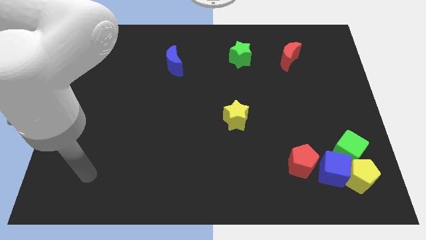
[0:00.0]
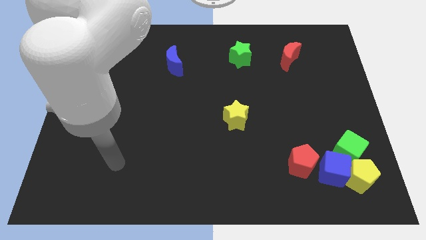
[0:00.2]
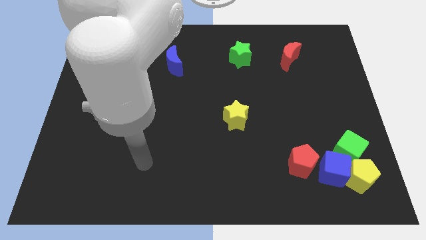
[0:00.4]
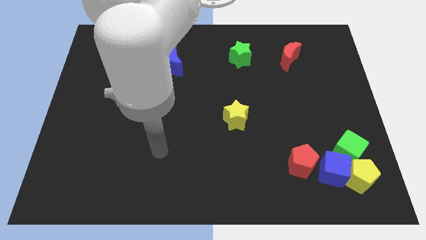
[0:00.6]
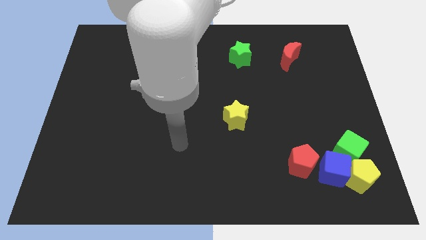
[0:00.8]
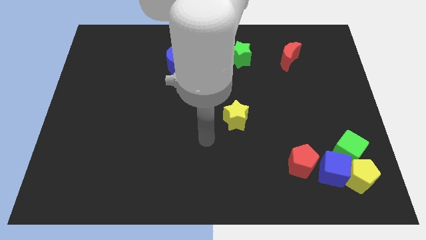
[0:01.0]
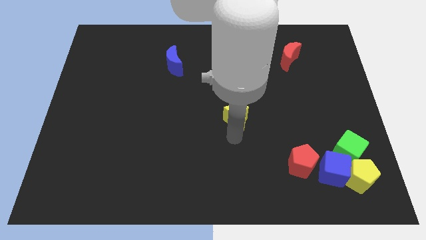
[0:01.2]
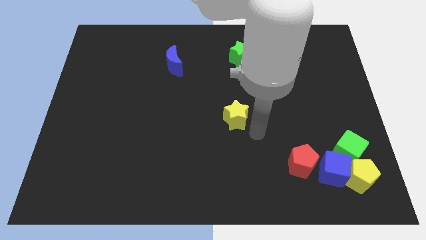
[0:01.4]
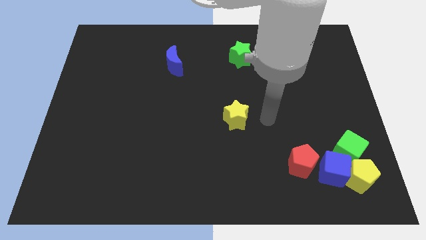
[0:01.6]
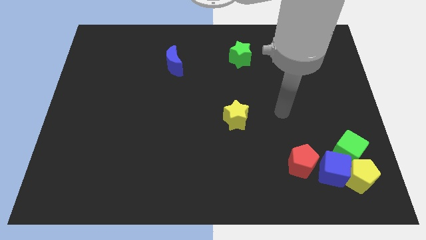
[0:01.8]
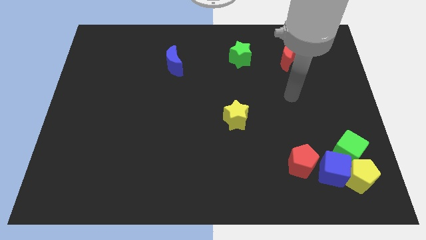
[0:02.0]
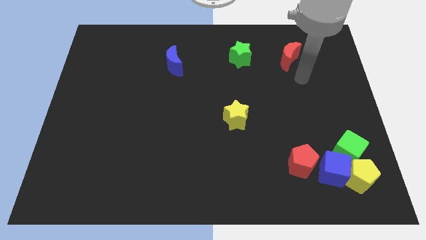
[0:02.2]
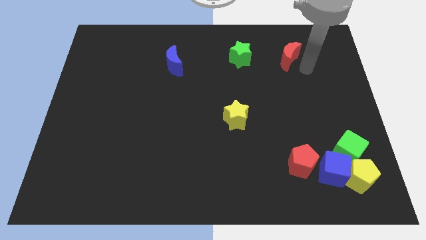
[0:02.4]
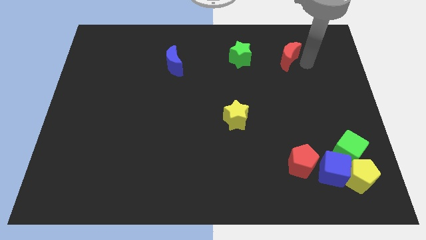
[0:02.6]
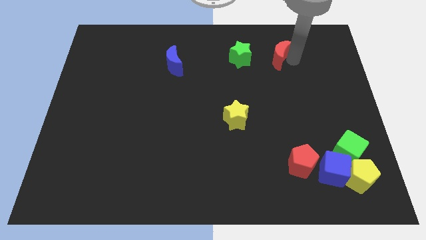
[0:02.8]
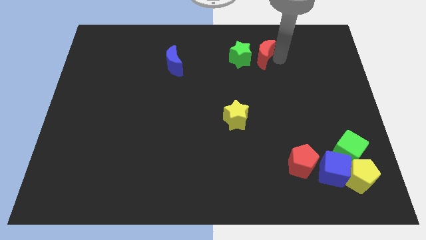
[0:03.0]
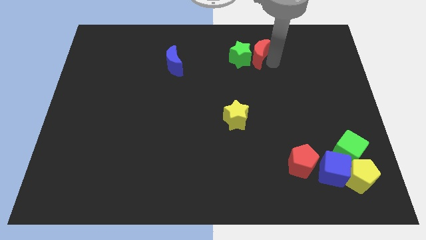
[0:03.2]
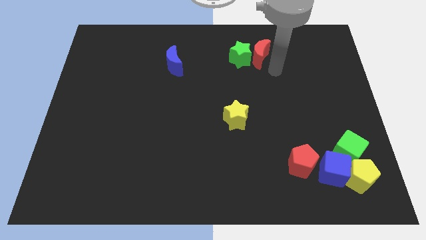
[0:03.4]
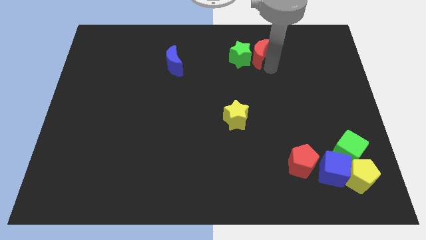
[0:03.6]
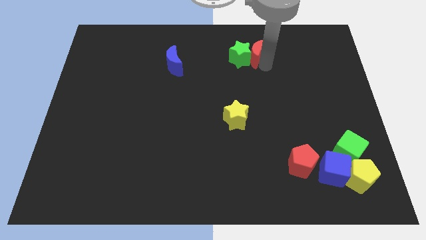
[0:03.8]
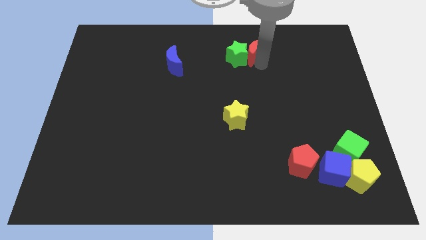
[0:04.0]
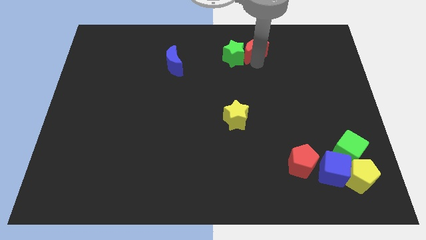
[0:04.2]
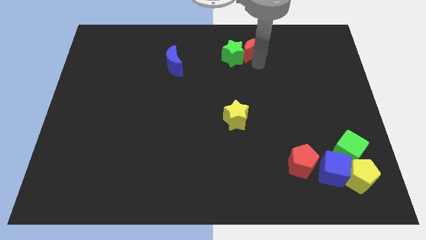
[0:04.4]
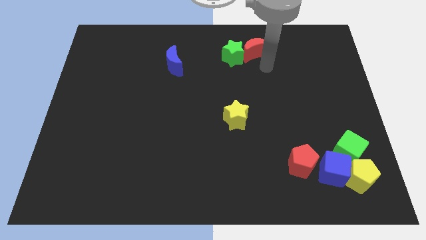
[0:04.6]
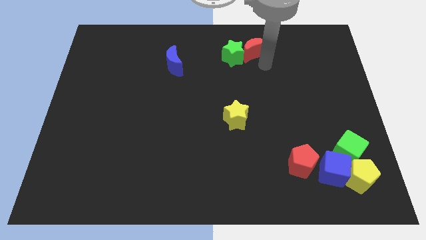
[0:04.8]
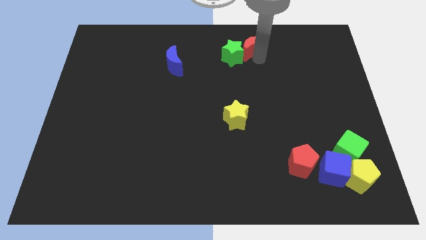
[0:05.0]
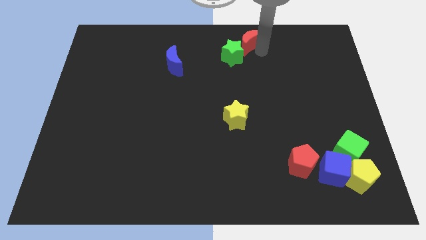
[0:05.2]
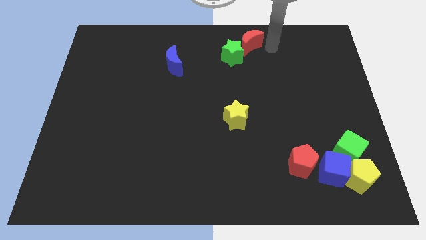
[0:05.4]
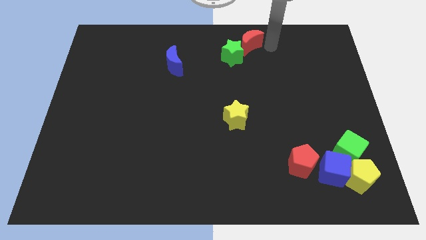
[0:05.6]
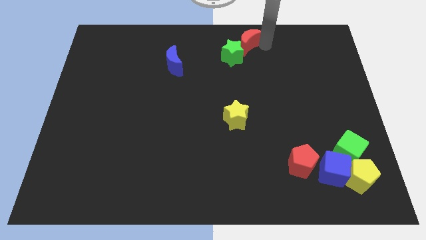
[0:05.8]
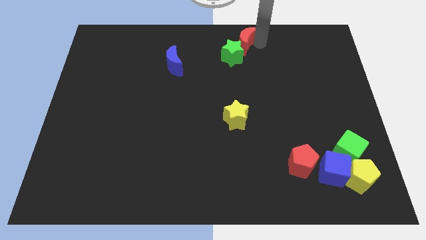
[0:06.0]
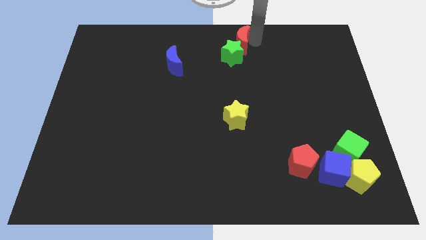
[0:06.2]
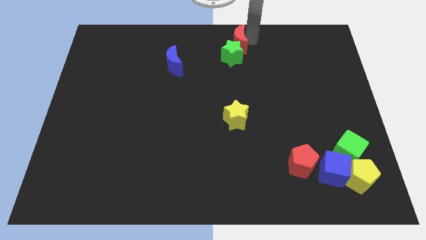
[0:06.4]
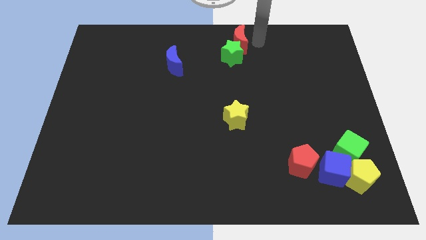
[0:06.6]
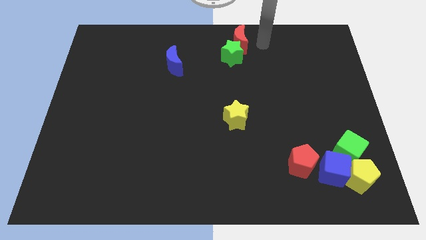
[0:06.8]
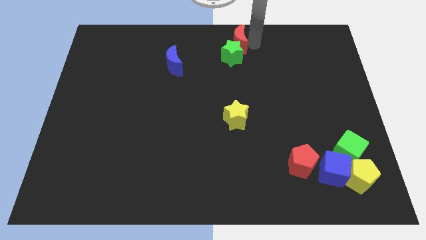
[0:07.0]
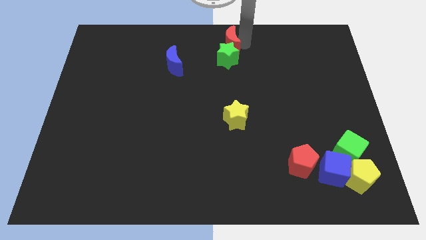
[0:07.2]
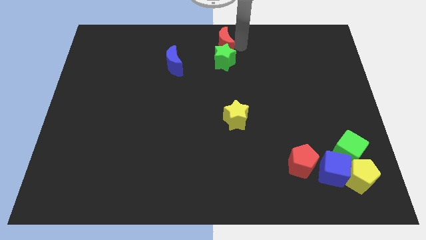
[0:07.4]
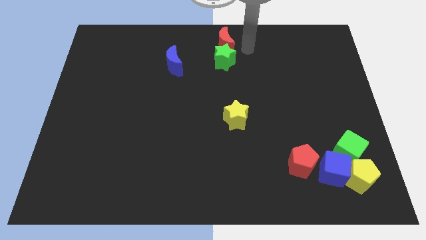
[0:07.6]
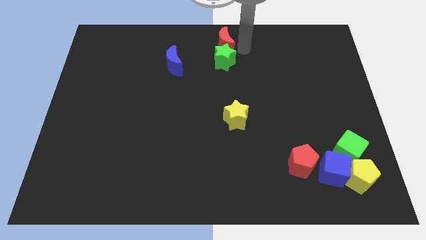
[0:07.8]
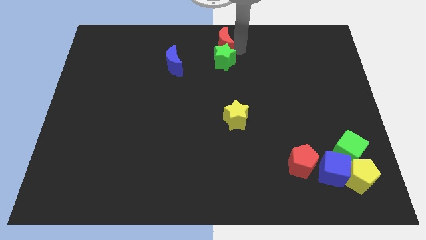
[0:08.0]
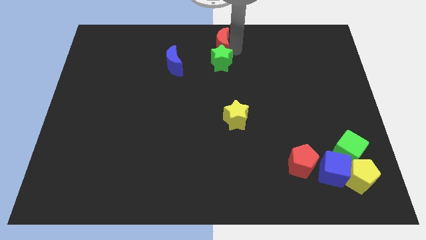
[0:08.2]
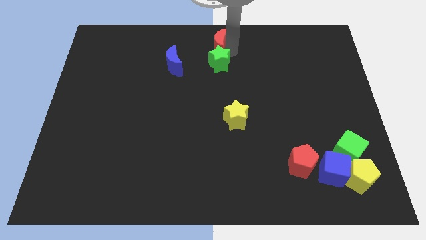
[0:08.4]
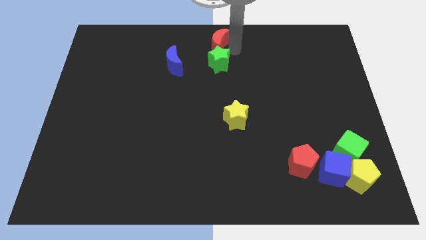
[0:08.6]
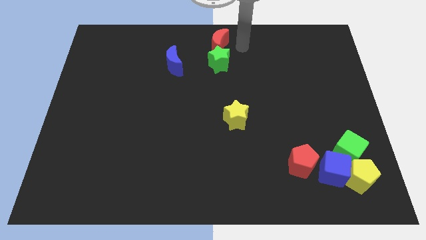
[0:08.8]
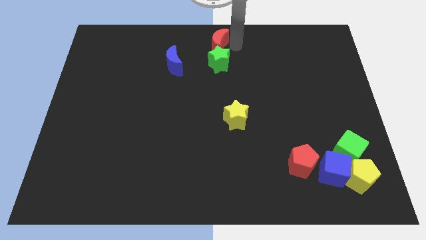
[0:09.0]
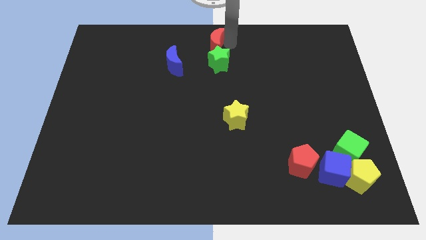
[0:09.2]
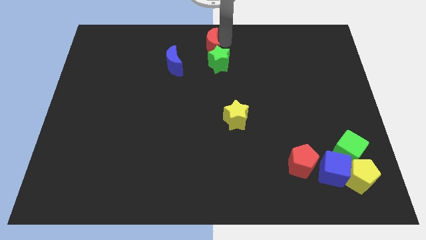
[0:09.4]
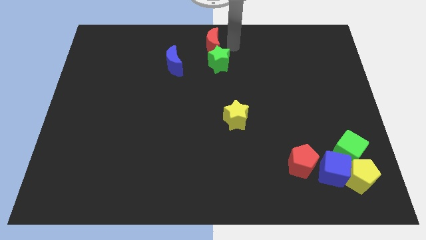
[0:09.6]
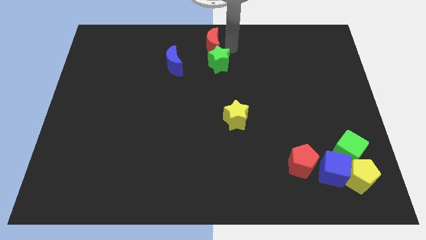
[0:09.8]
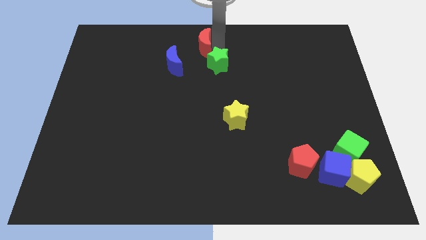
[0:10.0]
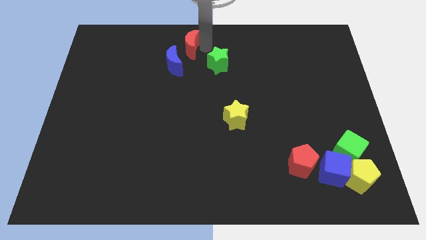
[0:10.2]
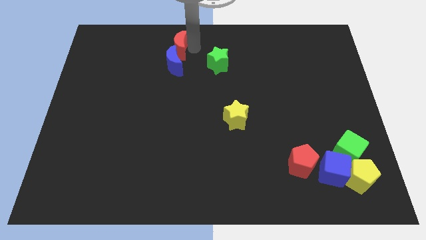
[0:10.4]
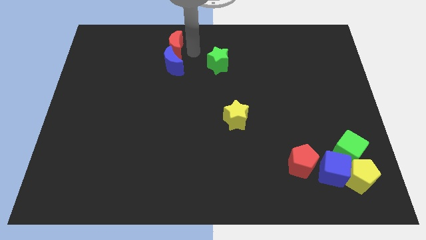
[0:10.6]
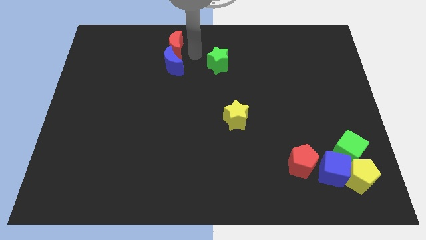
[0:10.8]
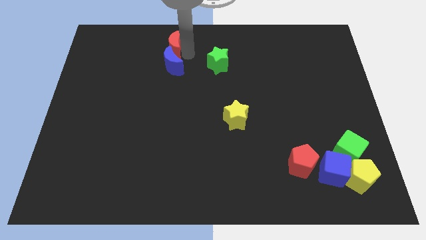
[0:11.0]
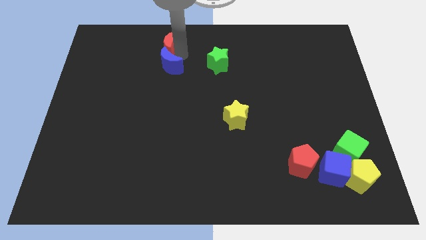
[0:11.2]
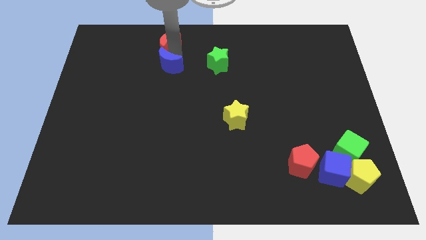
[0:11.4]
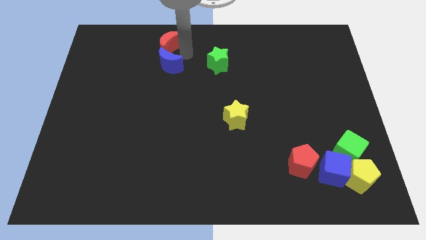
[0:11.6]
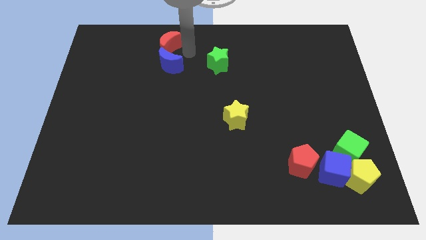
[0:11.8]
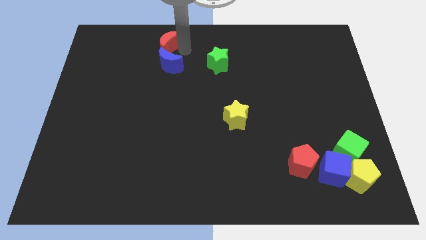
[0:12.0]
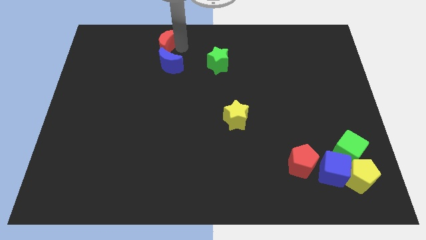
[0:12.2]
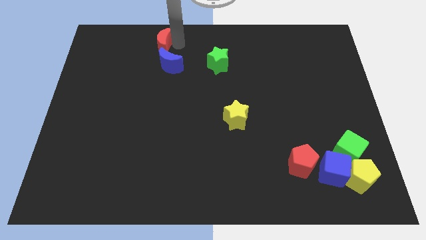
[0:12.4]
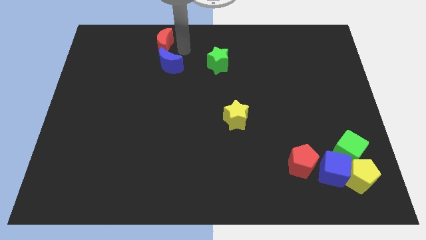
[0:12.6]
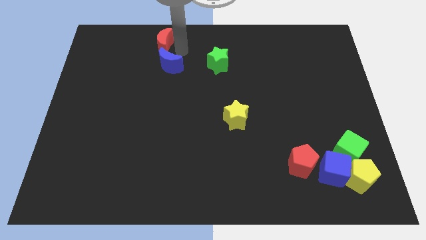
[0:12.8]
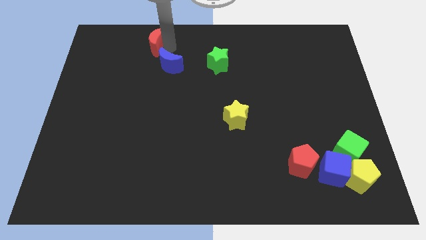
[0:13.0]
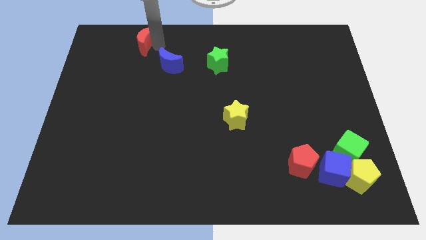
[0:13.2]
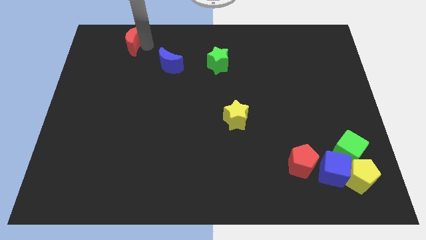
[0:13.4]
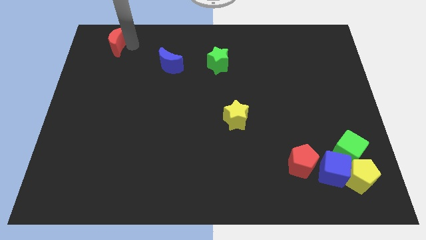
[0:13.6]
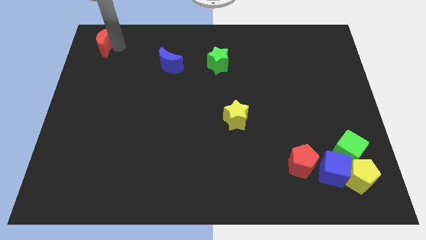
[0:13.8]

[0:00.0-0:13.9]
push the red moon to the upper left corner
